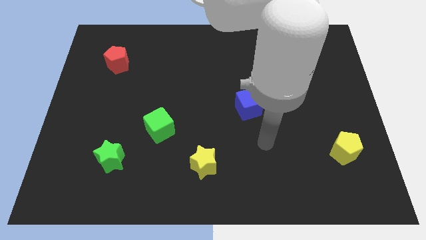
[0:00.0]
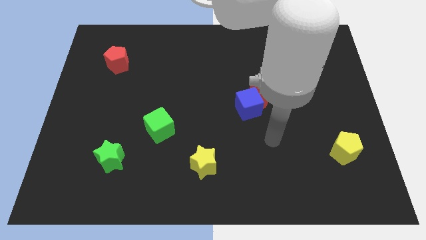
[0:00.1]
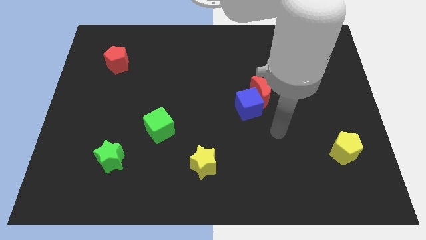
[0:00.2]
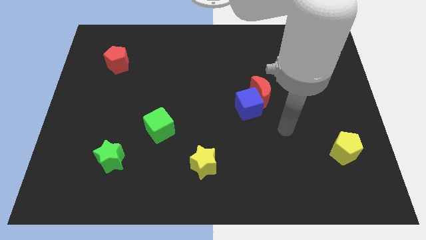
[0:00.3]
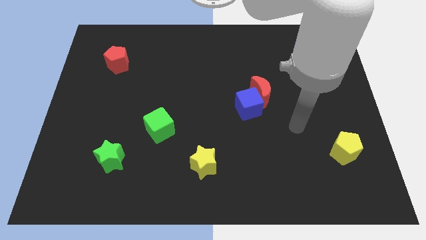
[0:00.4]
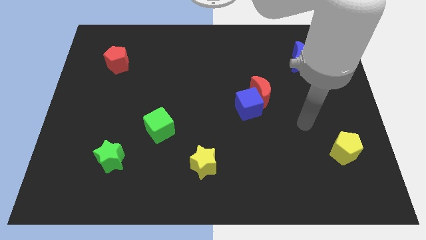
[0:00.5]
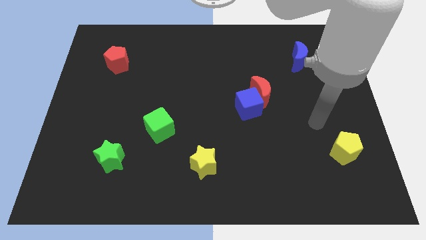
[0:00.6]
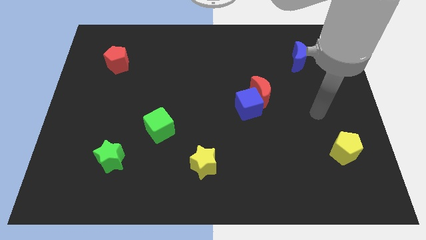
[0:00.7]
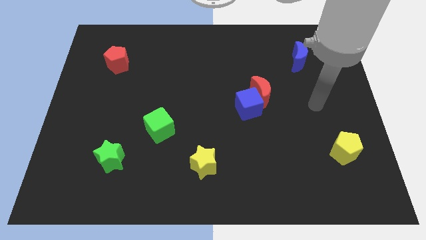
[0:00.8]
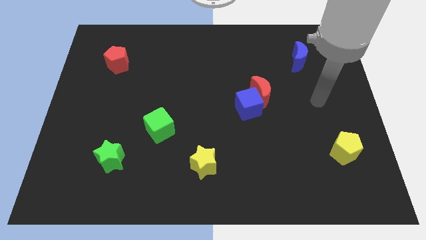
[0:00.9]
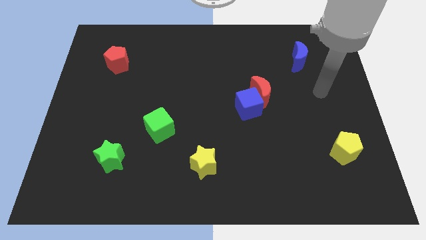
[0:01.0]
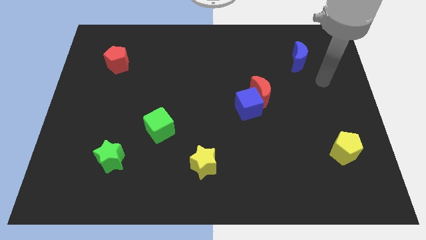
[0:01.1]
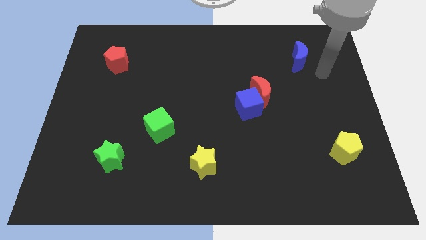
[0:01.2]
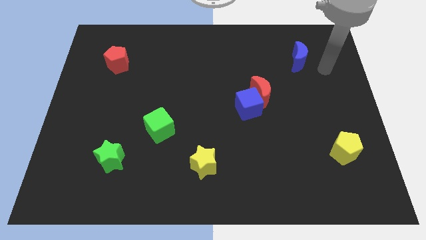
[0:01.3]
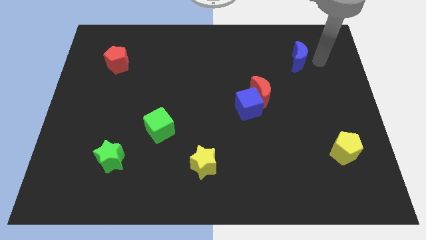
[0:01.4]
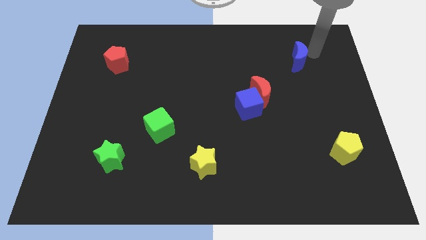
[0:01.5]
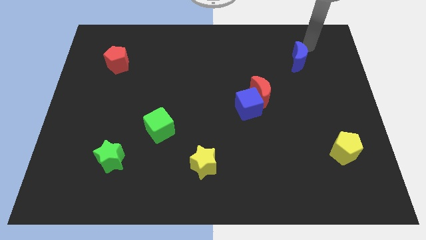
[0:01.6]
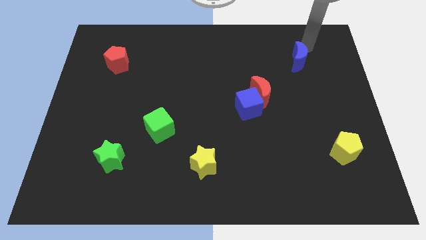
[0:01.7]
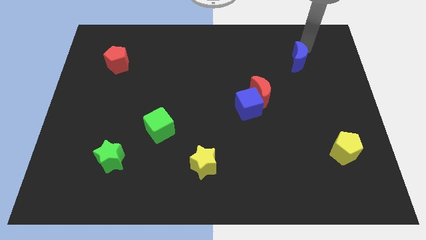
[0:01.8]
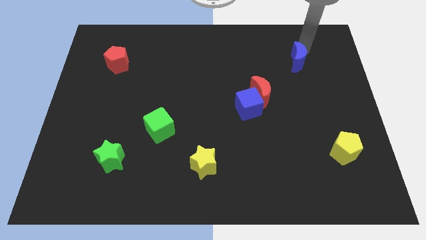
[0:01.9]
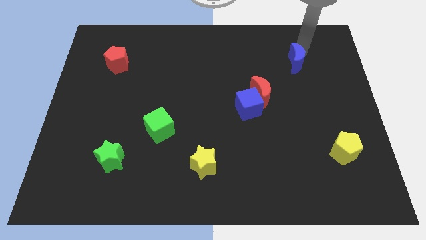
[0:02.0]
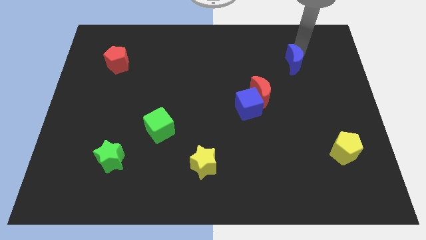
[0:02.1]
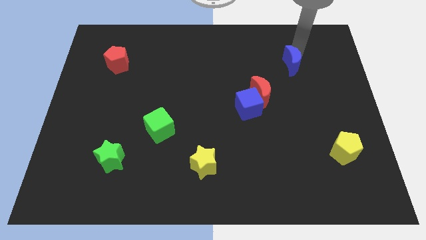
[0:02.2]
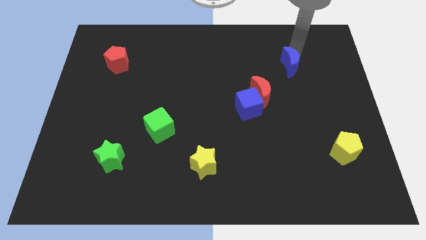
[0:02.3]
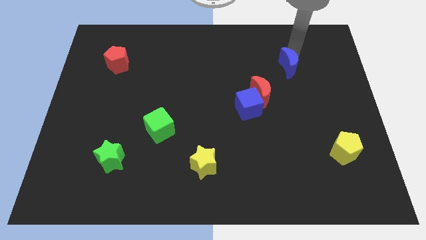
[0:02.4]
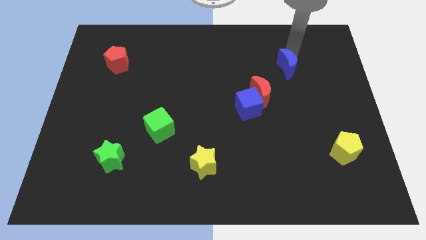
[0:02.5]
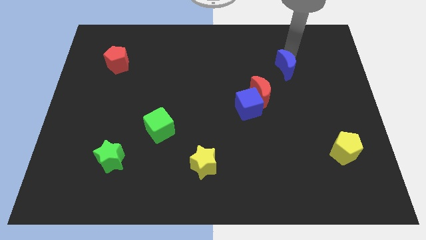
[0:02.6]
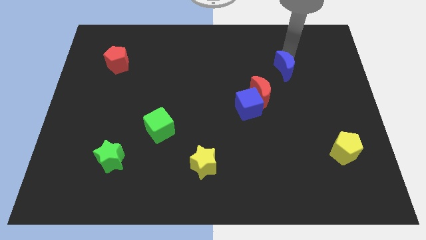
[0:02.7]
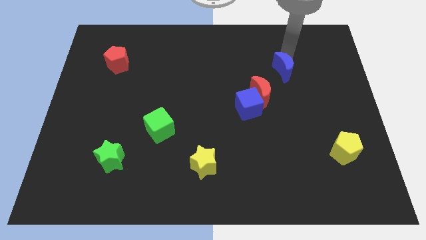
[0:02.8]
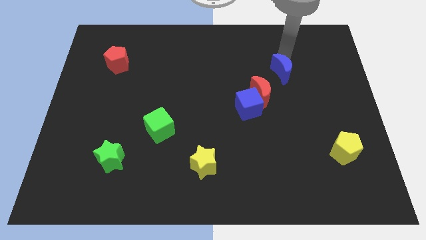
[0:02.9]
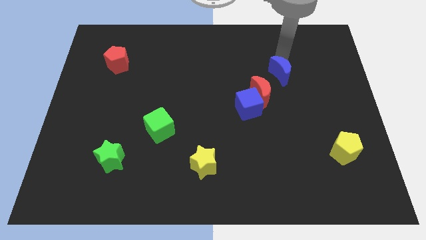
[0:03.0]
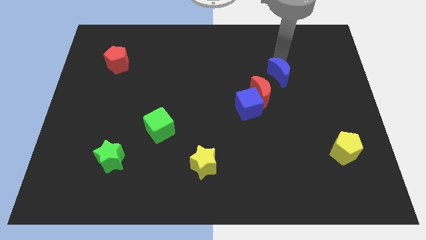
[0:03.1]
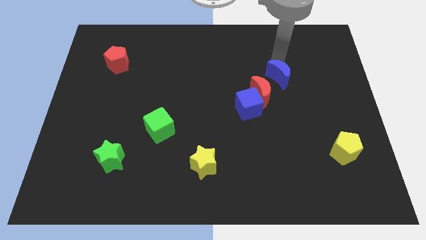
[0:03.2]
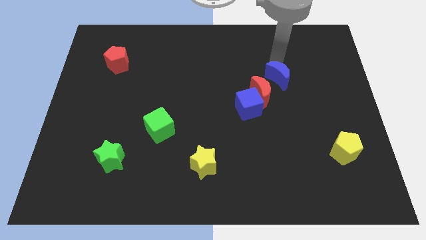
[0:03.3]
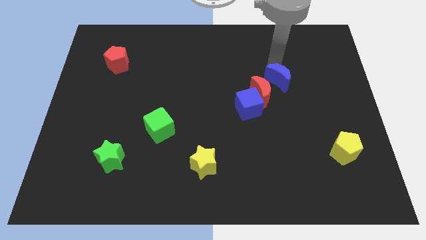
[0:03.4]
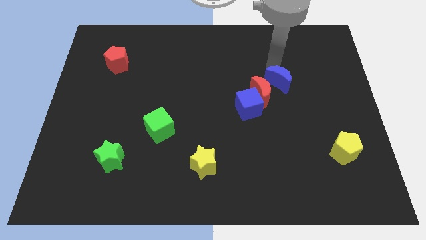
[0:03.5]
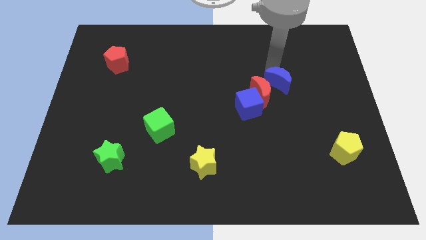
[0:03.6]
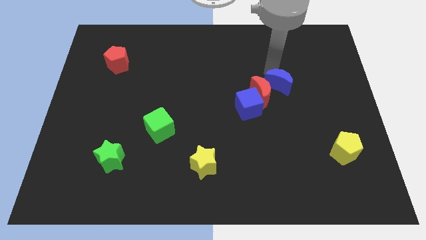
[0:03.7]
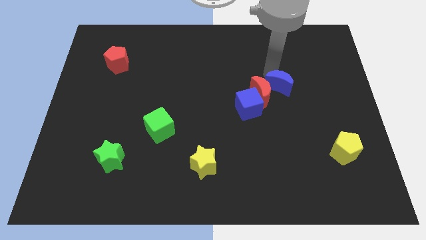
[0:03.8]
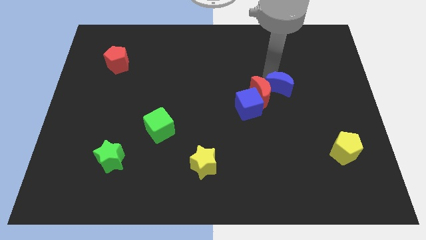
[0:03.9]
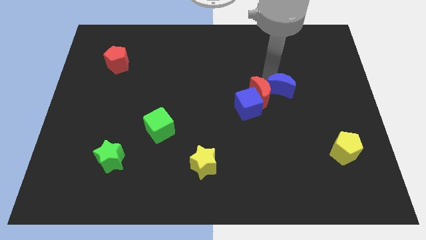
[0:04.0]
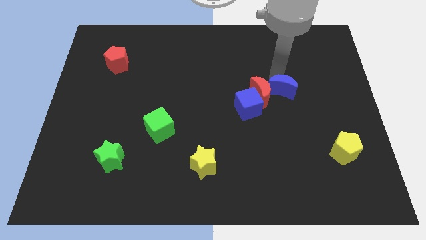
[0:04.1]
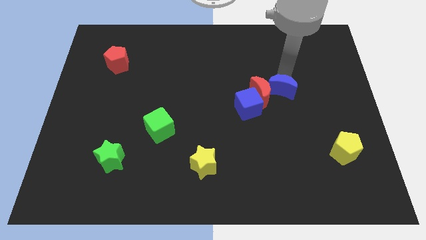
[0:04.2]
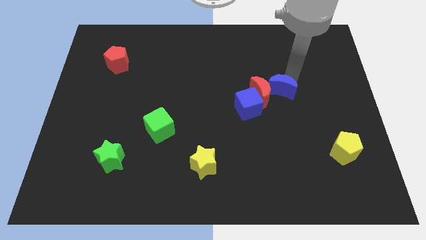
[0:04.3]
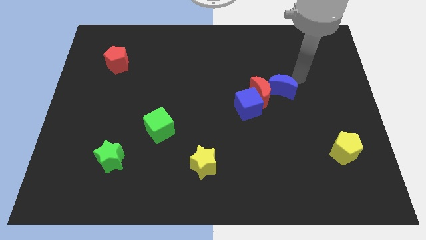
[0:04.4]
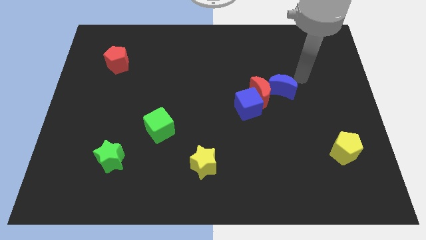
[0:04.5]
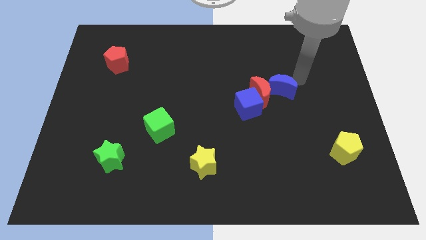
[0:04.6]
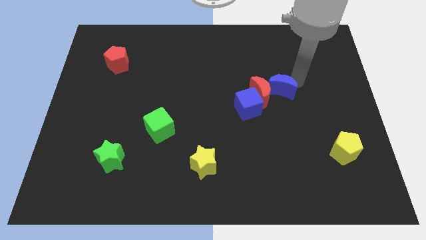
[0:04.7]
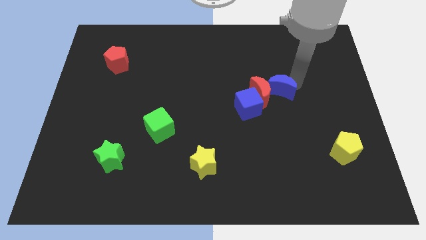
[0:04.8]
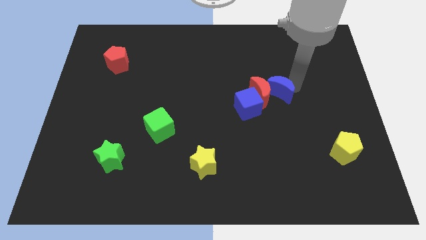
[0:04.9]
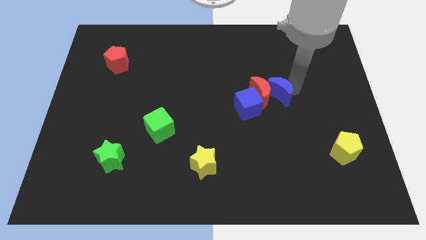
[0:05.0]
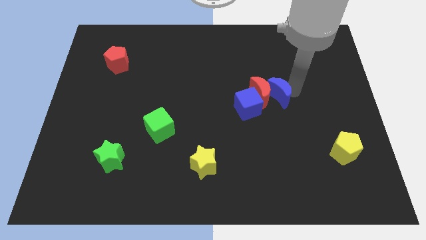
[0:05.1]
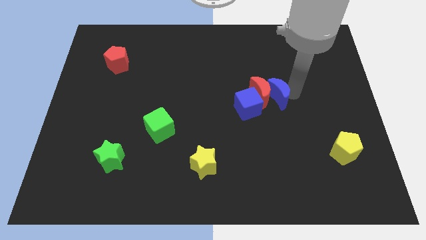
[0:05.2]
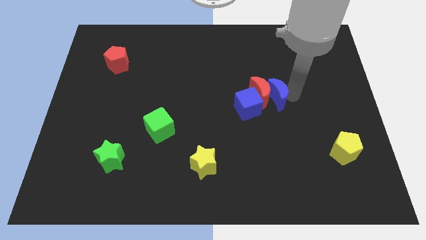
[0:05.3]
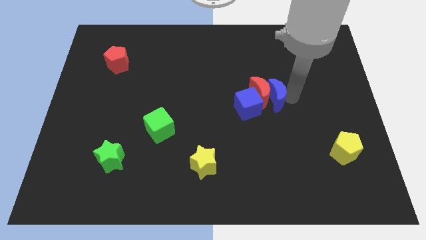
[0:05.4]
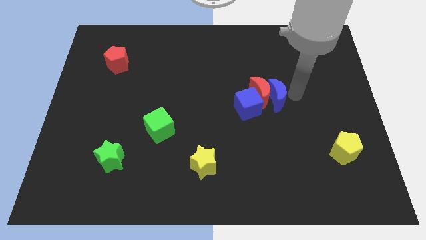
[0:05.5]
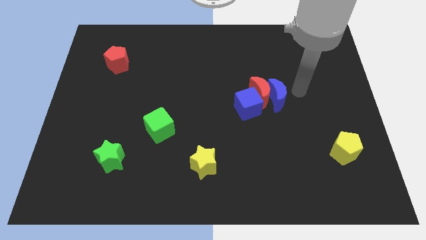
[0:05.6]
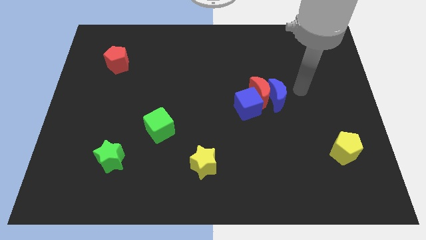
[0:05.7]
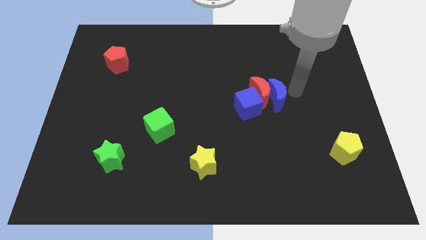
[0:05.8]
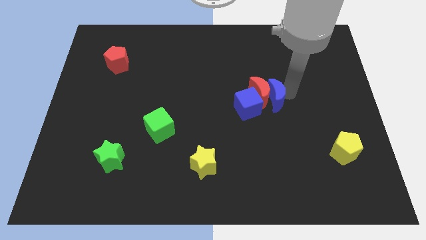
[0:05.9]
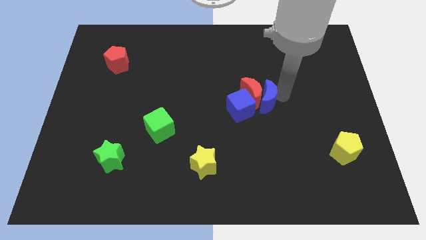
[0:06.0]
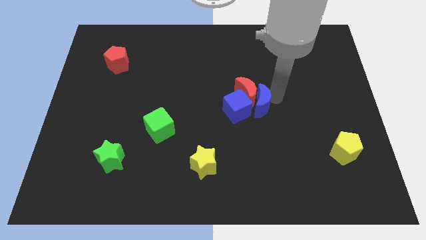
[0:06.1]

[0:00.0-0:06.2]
move the blue moon to the blue cube
